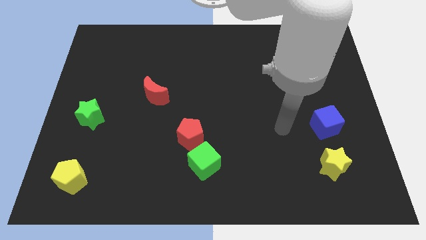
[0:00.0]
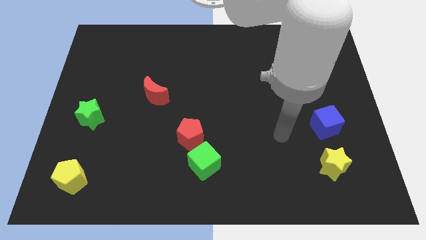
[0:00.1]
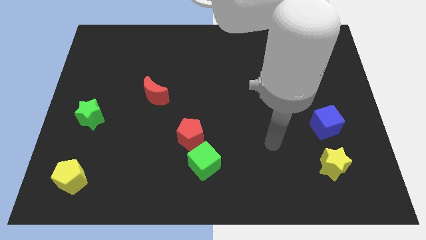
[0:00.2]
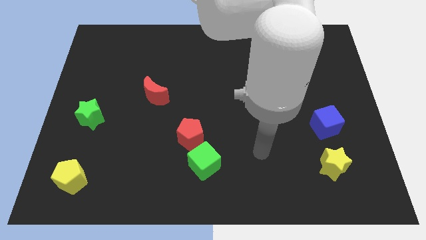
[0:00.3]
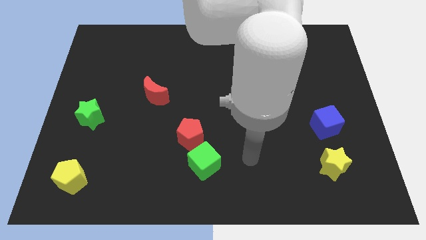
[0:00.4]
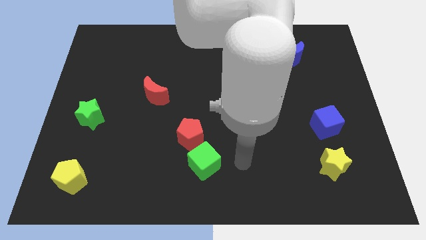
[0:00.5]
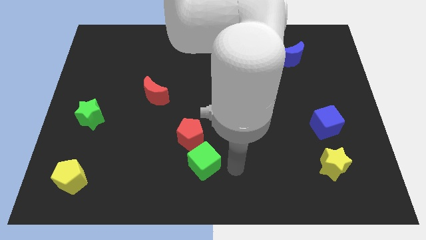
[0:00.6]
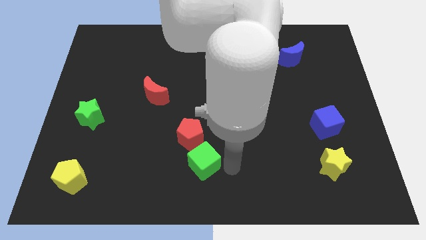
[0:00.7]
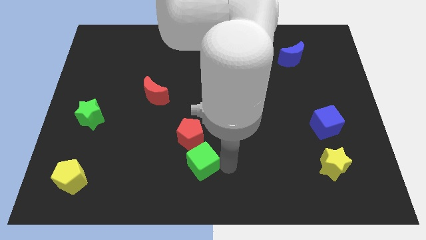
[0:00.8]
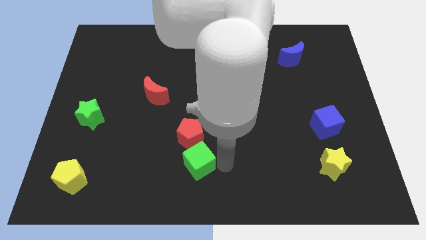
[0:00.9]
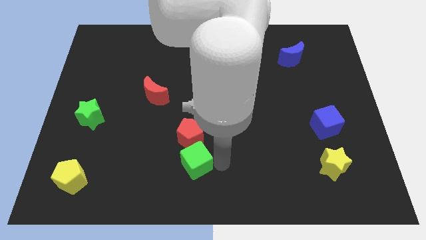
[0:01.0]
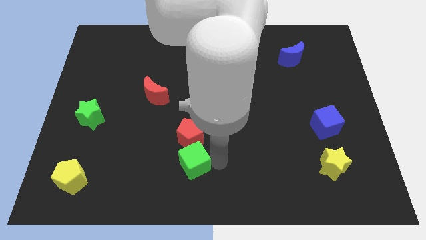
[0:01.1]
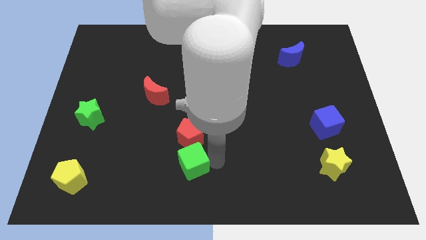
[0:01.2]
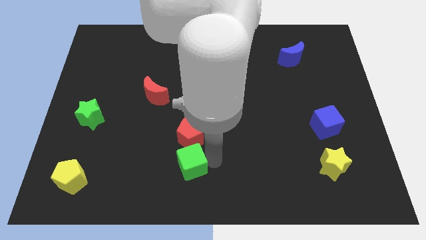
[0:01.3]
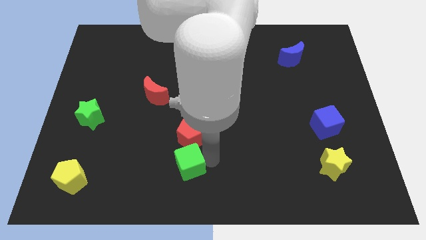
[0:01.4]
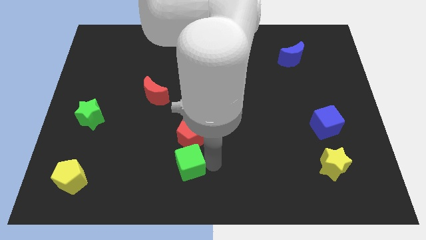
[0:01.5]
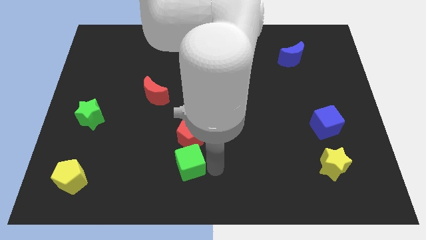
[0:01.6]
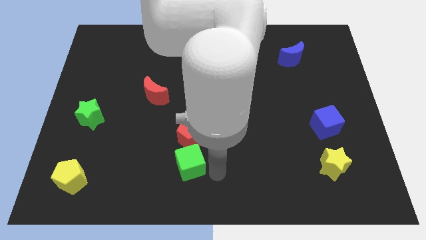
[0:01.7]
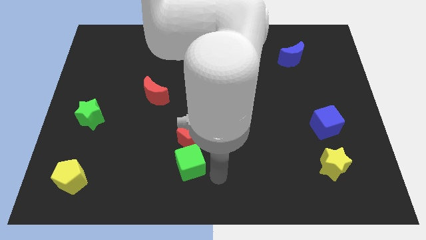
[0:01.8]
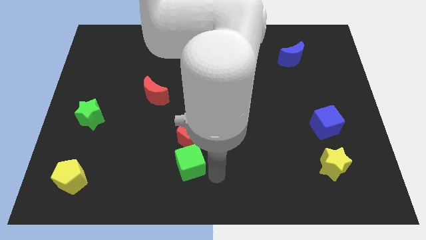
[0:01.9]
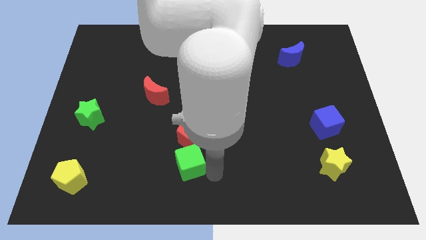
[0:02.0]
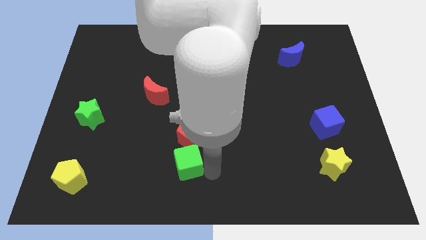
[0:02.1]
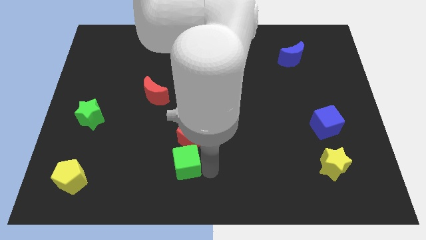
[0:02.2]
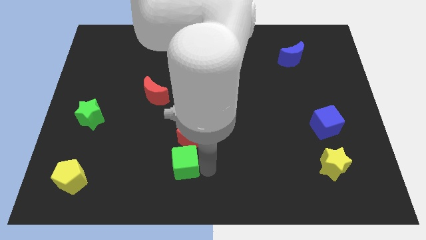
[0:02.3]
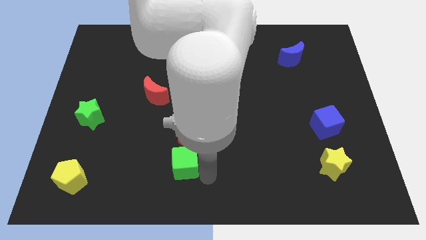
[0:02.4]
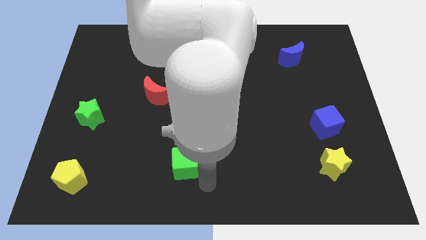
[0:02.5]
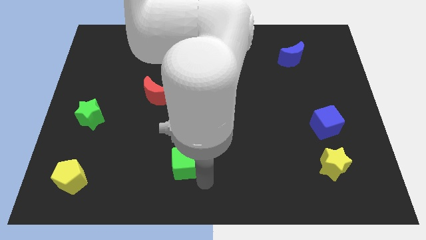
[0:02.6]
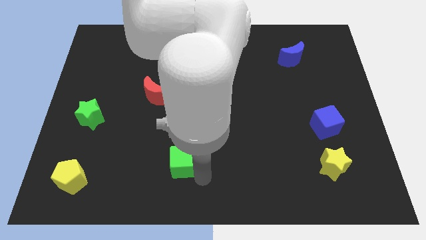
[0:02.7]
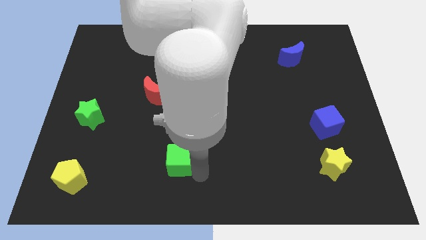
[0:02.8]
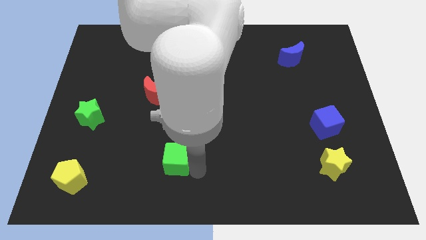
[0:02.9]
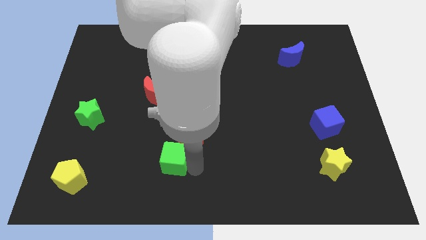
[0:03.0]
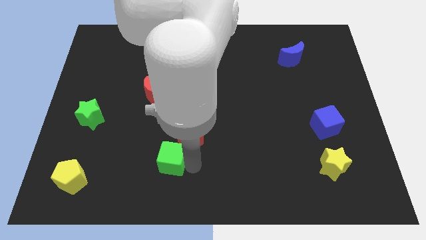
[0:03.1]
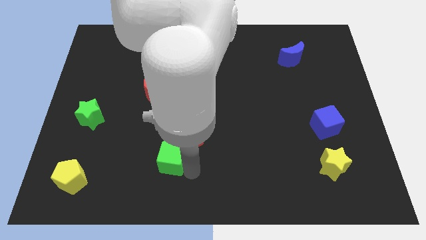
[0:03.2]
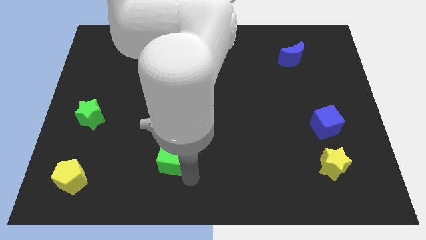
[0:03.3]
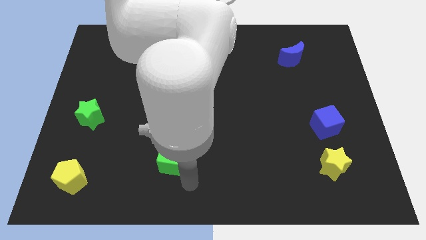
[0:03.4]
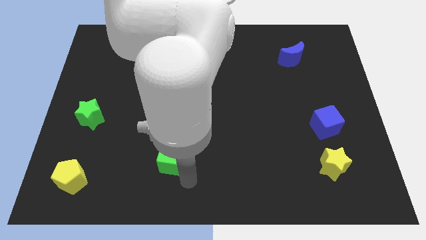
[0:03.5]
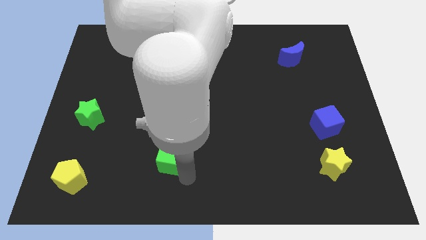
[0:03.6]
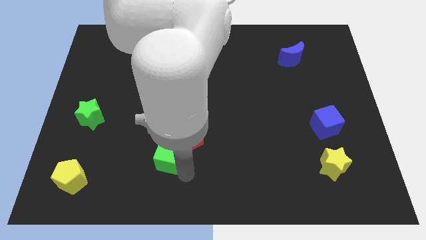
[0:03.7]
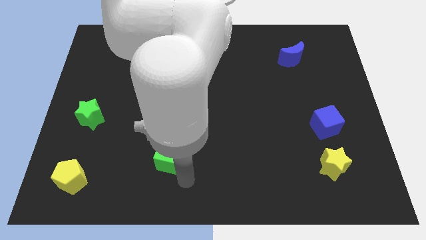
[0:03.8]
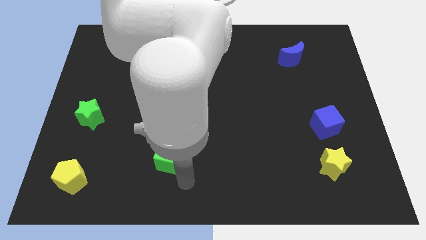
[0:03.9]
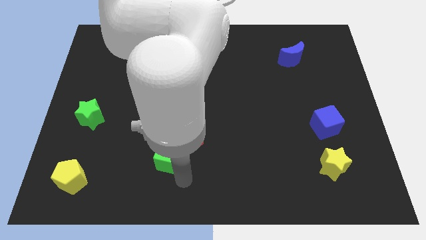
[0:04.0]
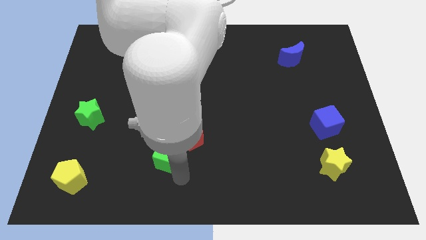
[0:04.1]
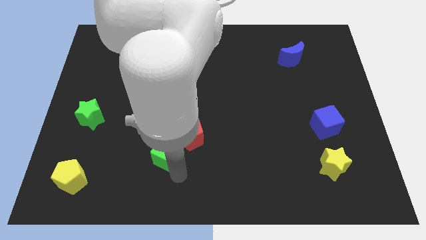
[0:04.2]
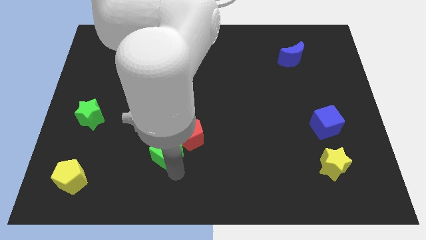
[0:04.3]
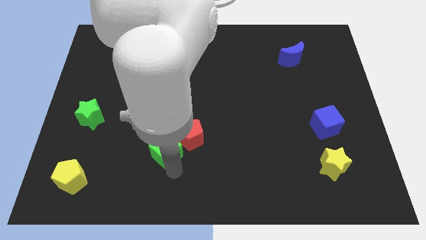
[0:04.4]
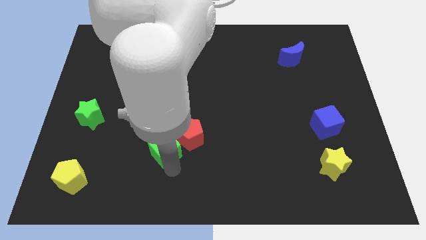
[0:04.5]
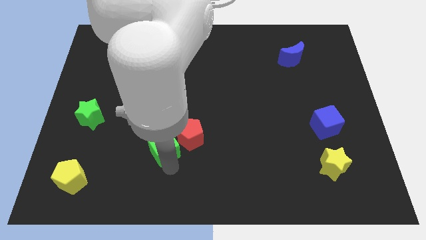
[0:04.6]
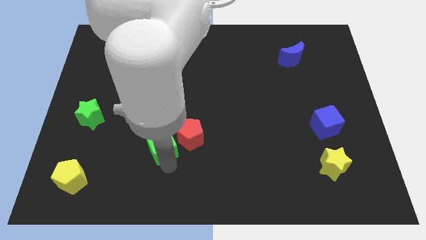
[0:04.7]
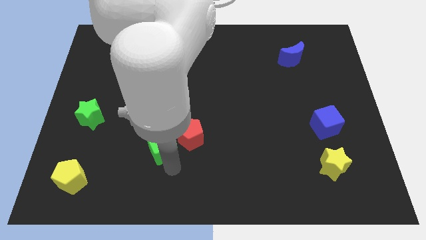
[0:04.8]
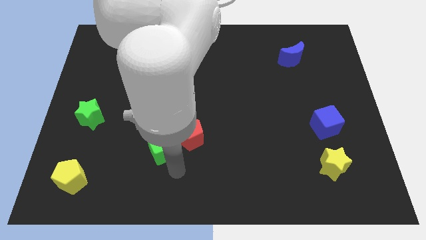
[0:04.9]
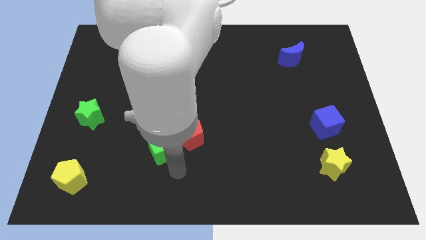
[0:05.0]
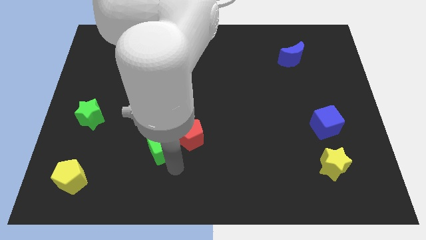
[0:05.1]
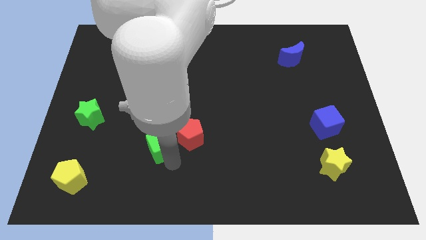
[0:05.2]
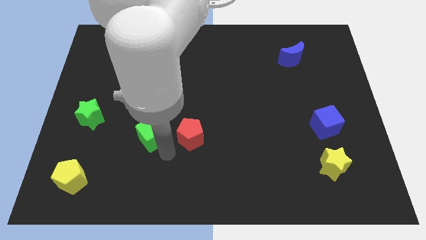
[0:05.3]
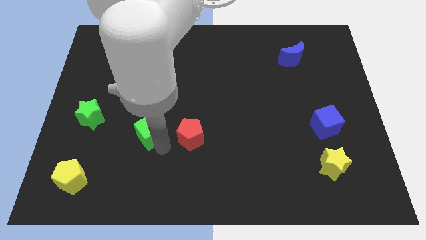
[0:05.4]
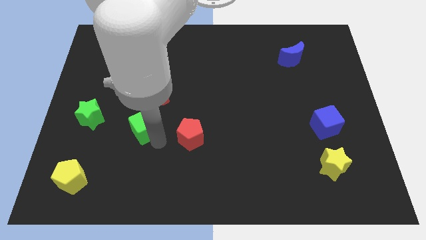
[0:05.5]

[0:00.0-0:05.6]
put the green cube right of the green star

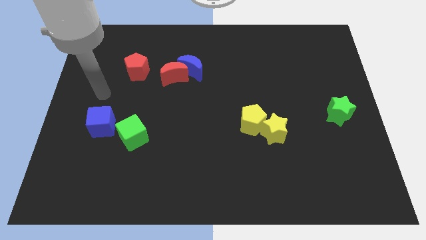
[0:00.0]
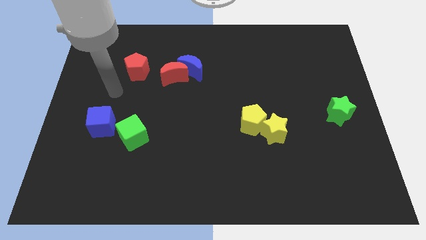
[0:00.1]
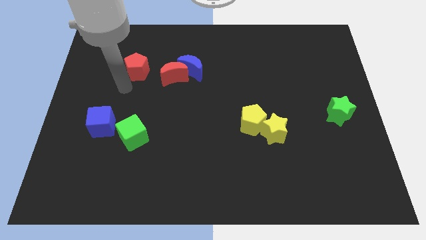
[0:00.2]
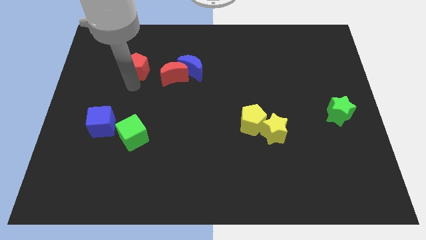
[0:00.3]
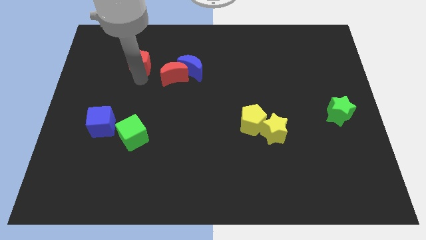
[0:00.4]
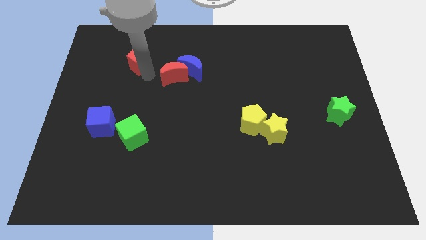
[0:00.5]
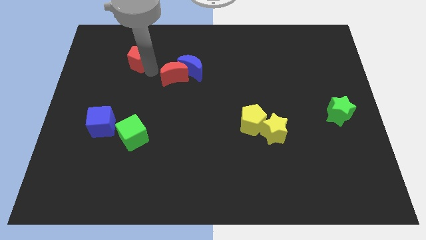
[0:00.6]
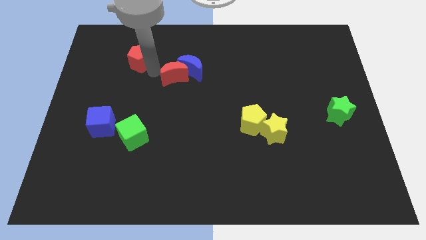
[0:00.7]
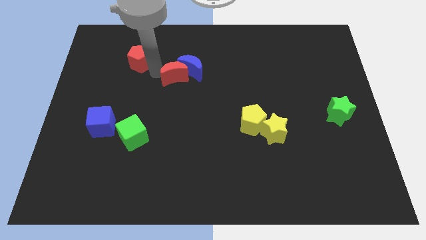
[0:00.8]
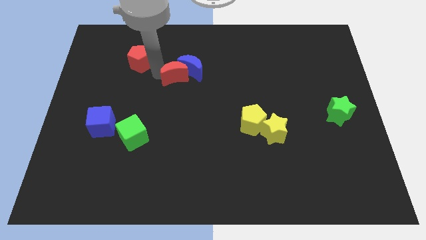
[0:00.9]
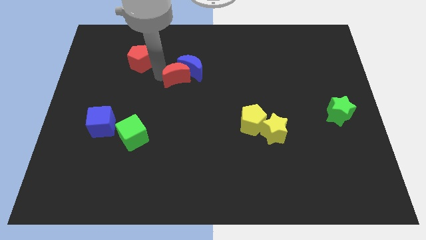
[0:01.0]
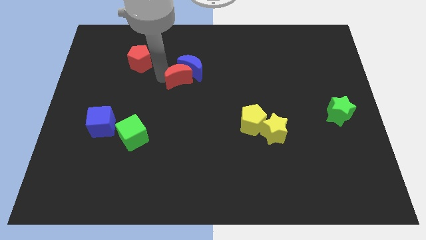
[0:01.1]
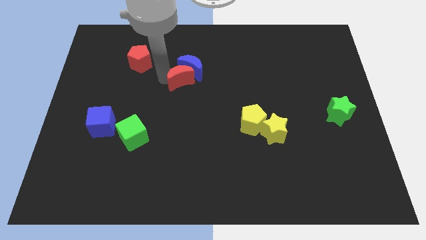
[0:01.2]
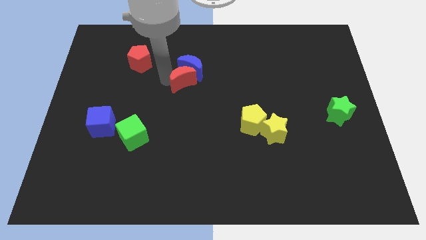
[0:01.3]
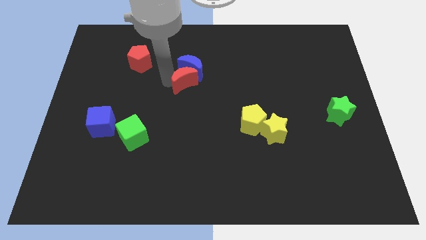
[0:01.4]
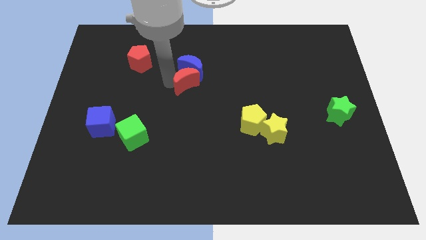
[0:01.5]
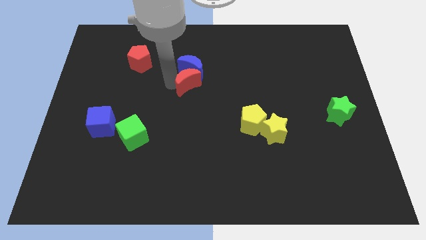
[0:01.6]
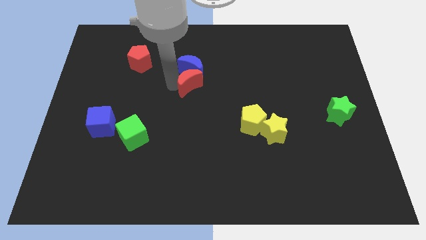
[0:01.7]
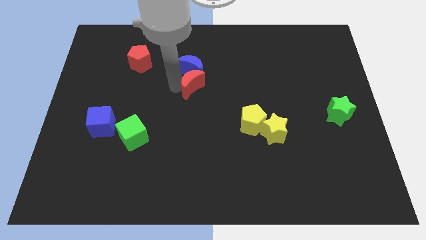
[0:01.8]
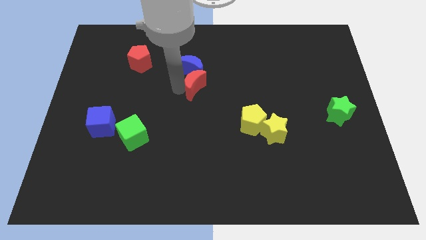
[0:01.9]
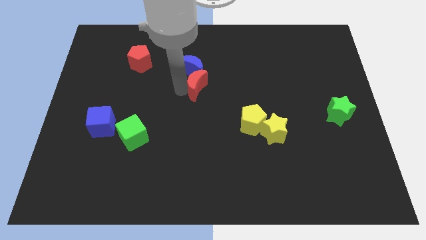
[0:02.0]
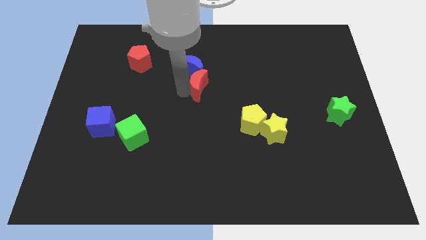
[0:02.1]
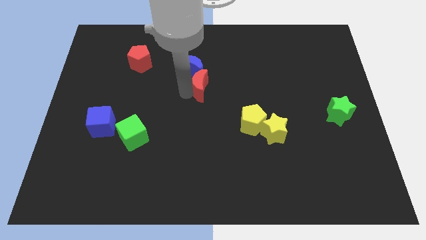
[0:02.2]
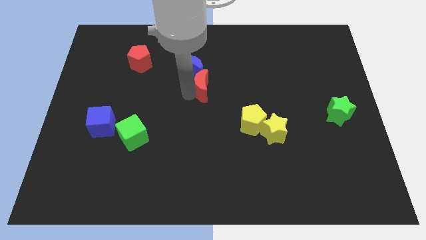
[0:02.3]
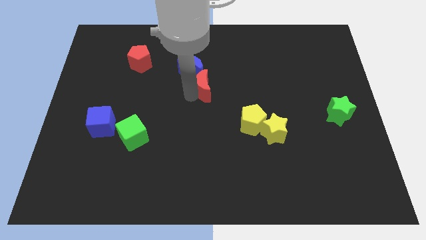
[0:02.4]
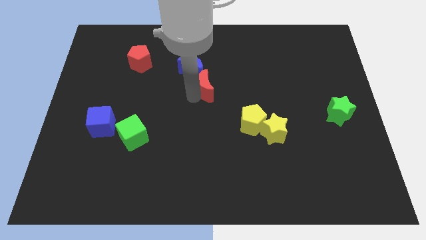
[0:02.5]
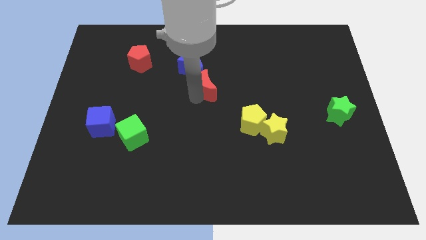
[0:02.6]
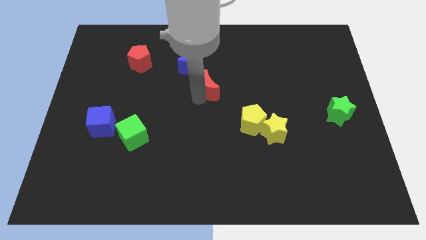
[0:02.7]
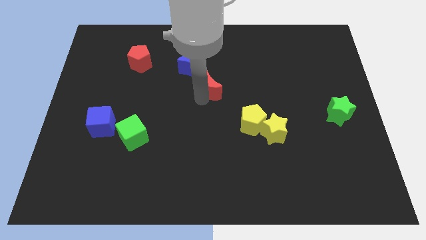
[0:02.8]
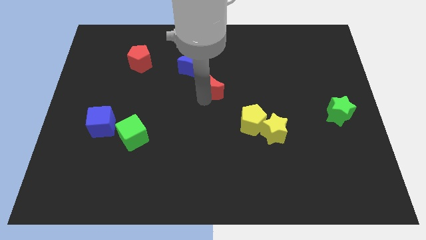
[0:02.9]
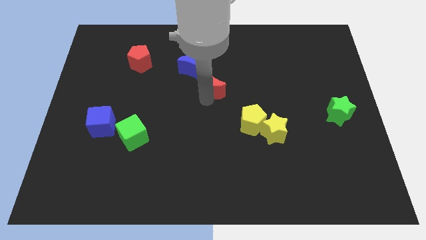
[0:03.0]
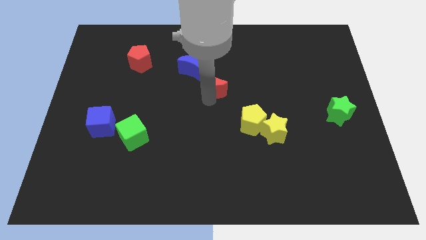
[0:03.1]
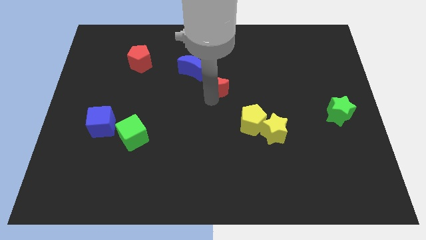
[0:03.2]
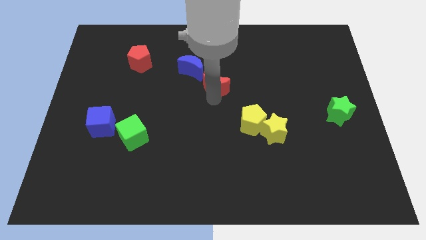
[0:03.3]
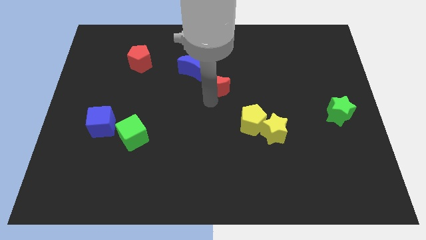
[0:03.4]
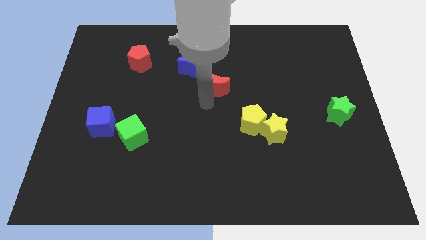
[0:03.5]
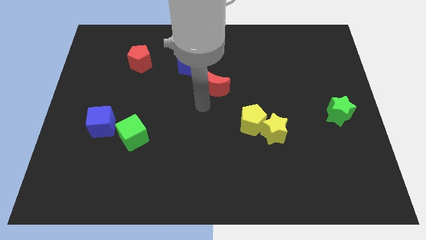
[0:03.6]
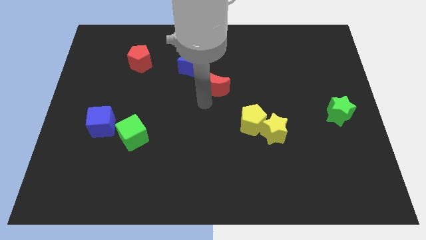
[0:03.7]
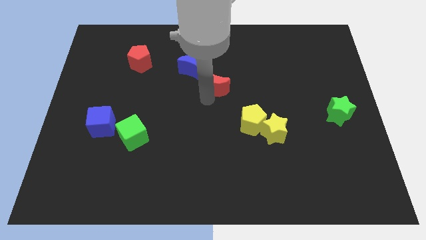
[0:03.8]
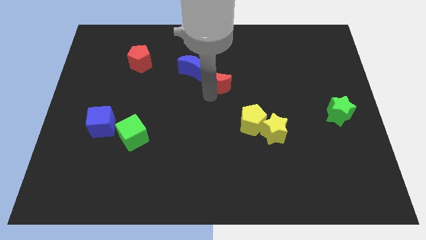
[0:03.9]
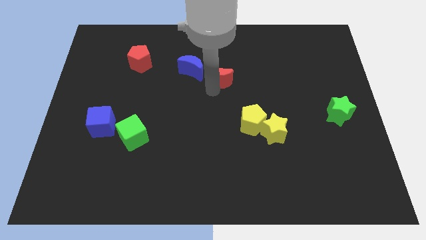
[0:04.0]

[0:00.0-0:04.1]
put the red moon to the right side of the blue moon
